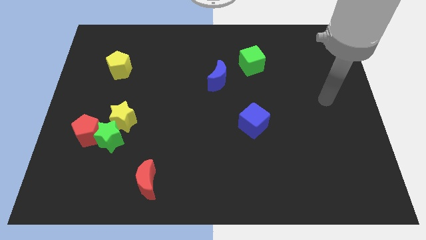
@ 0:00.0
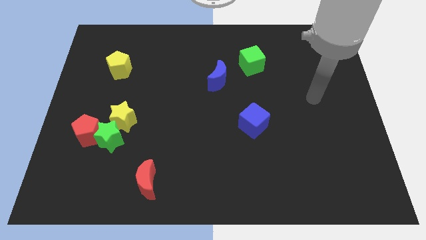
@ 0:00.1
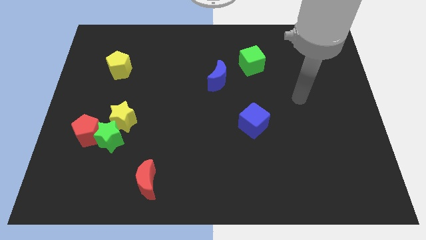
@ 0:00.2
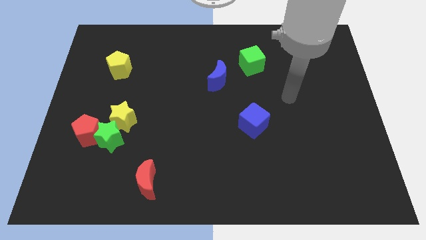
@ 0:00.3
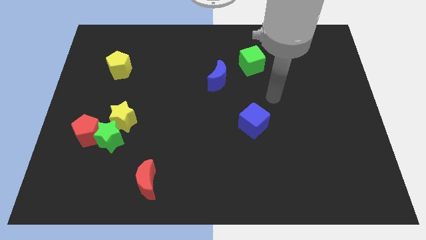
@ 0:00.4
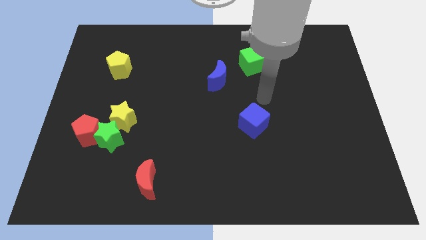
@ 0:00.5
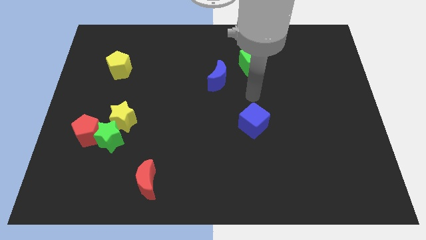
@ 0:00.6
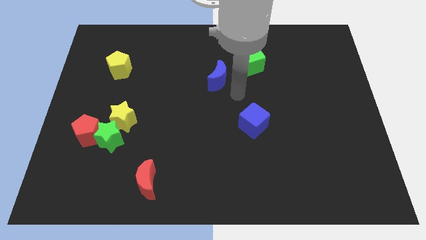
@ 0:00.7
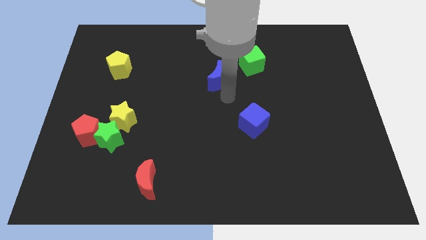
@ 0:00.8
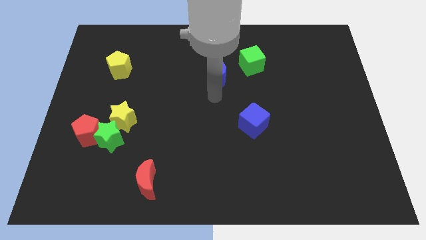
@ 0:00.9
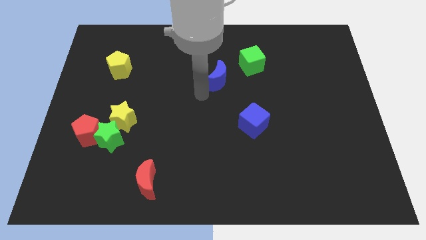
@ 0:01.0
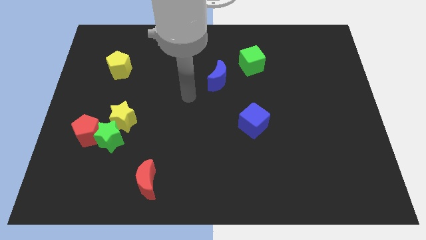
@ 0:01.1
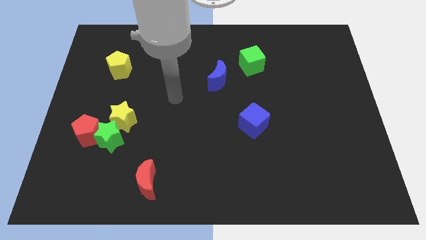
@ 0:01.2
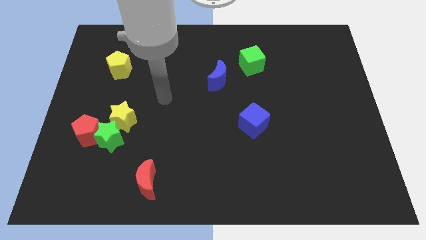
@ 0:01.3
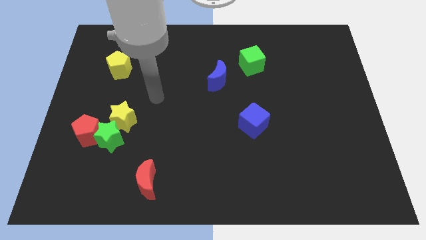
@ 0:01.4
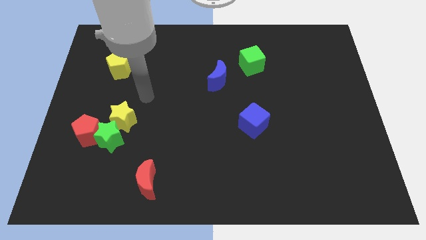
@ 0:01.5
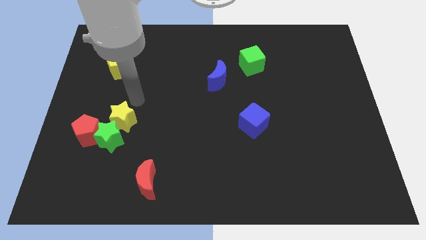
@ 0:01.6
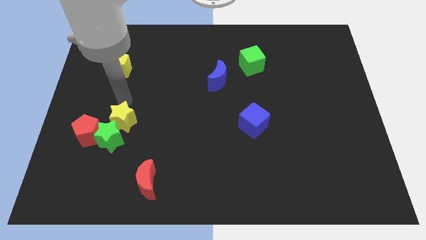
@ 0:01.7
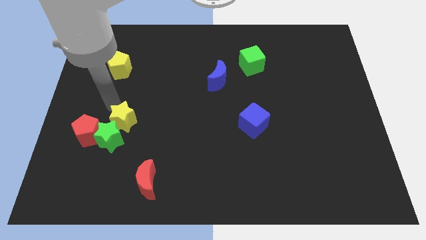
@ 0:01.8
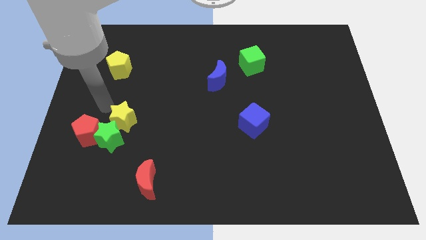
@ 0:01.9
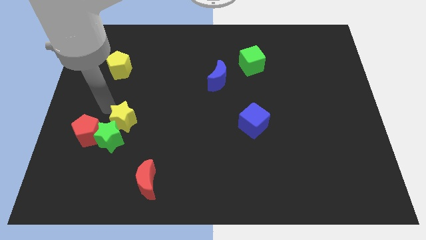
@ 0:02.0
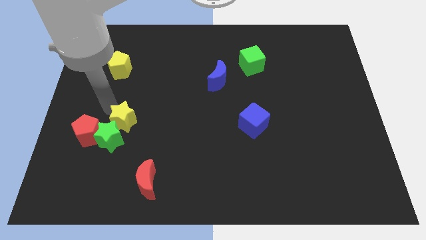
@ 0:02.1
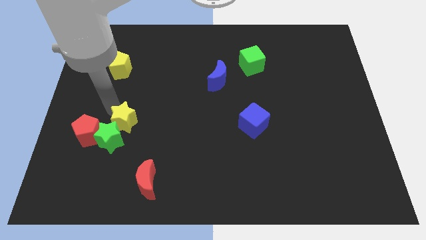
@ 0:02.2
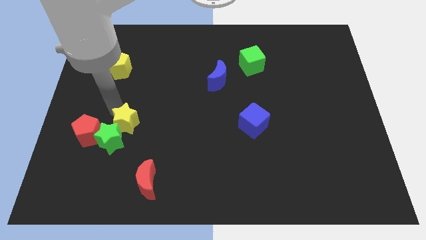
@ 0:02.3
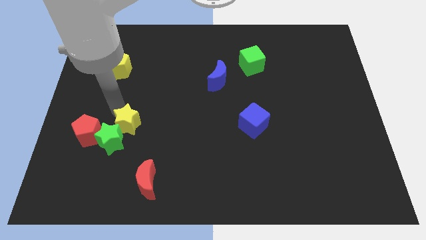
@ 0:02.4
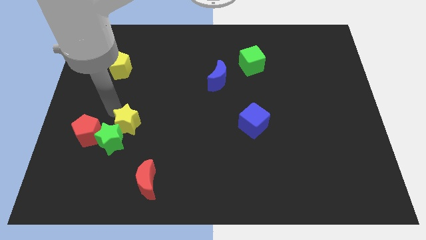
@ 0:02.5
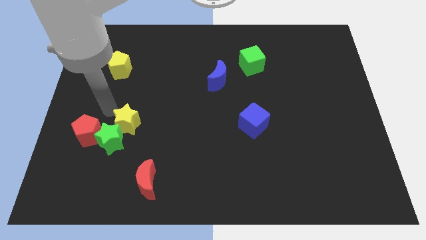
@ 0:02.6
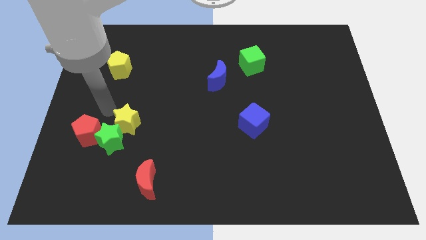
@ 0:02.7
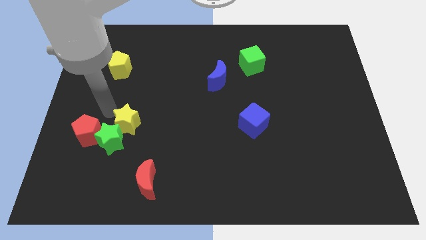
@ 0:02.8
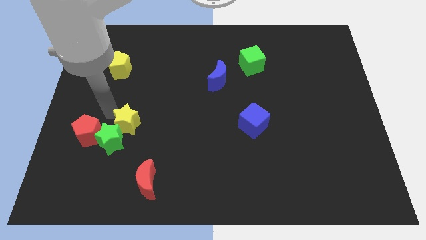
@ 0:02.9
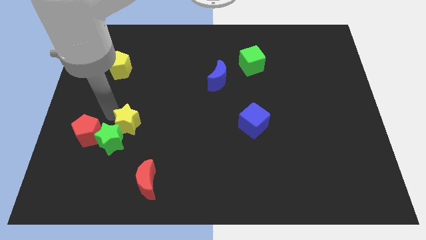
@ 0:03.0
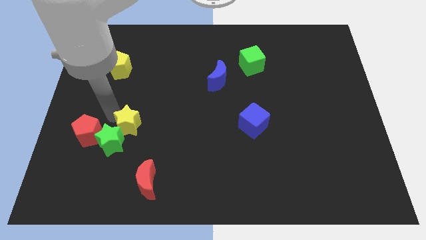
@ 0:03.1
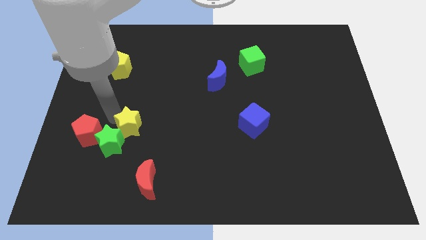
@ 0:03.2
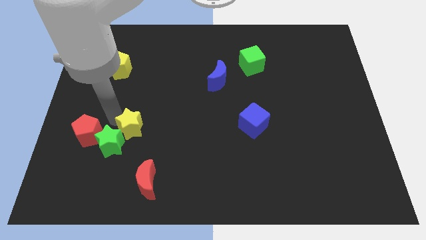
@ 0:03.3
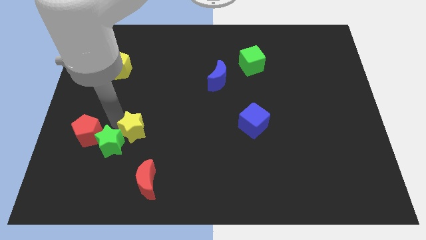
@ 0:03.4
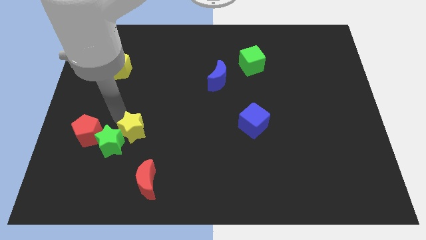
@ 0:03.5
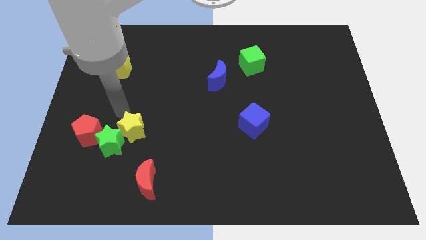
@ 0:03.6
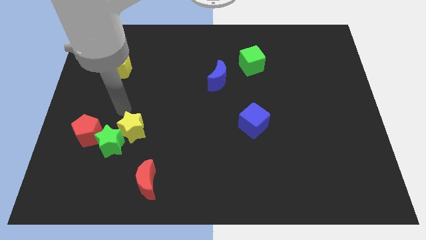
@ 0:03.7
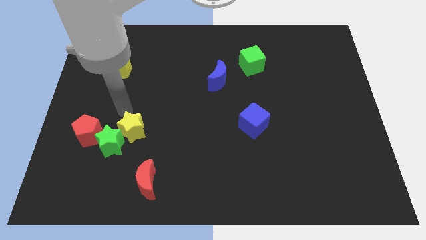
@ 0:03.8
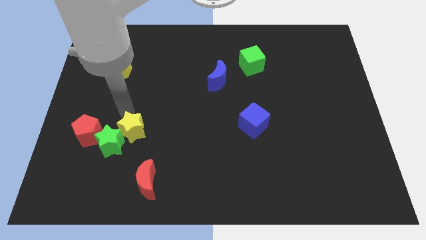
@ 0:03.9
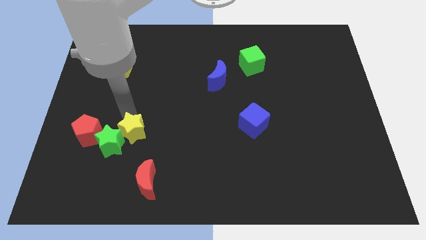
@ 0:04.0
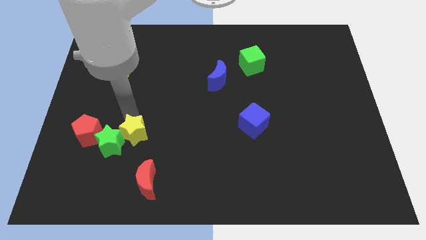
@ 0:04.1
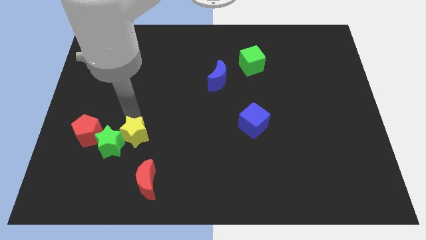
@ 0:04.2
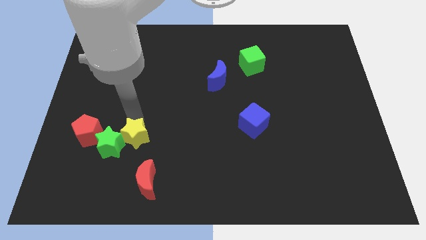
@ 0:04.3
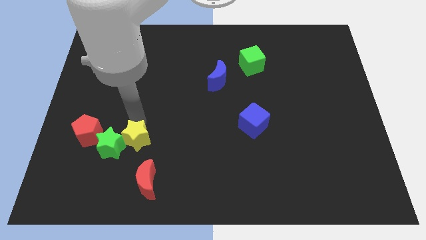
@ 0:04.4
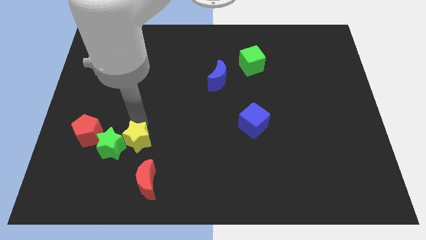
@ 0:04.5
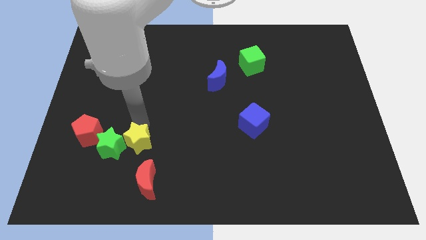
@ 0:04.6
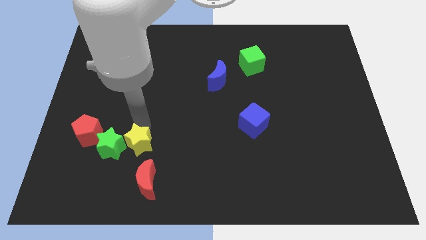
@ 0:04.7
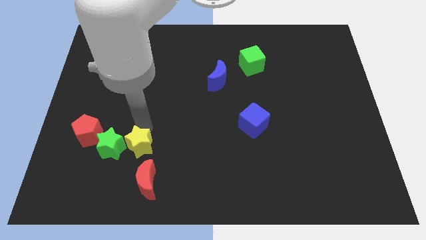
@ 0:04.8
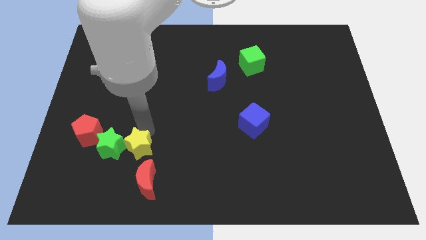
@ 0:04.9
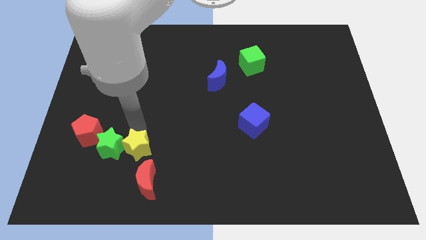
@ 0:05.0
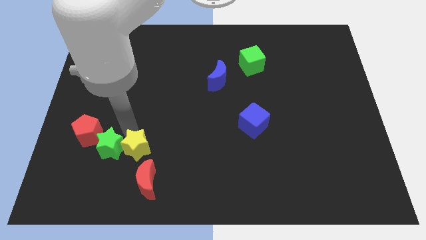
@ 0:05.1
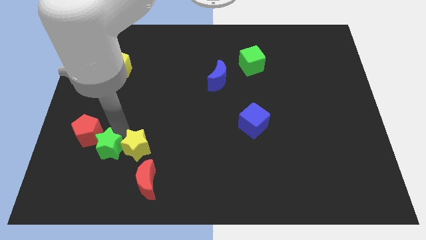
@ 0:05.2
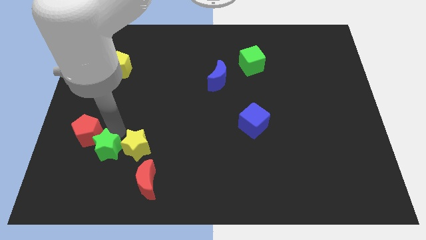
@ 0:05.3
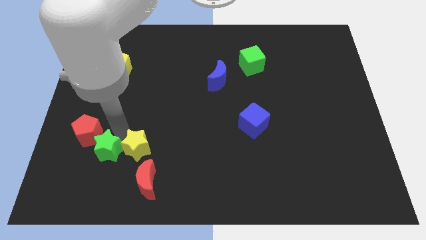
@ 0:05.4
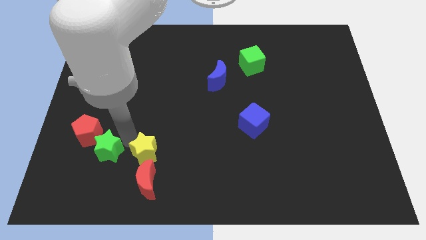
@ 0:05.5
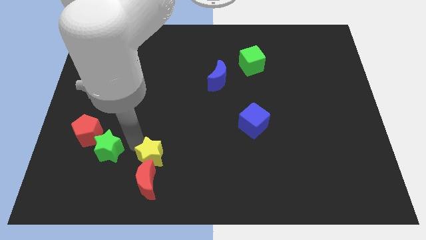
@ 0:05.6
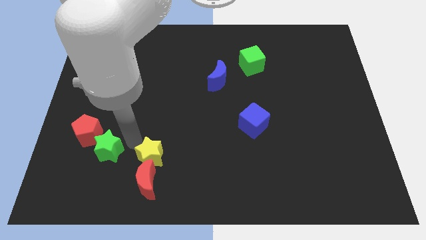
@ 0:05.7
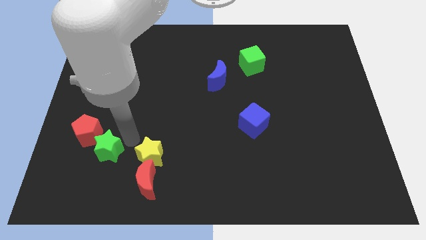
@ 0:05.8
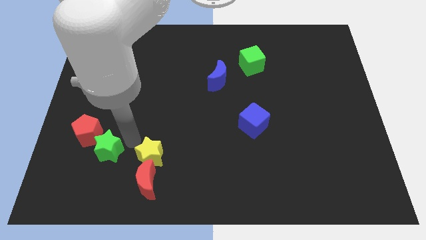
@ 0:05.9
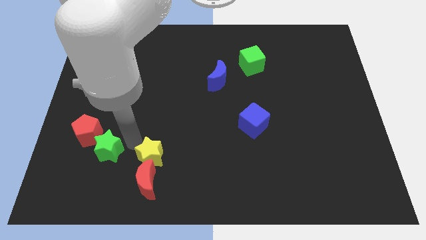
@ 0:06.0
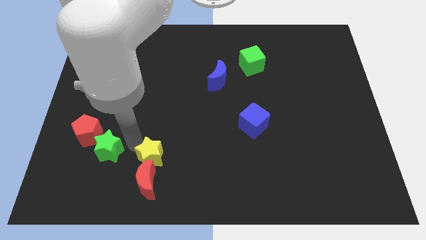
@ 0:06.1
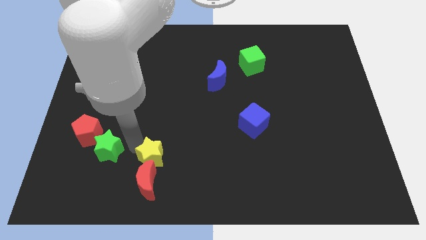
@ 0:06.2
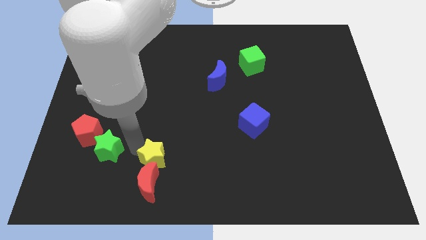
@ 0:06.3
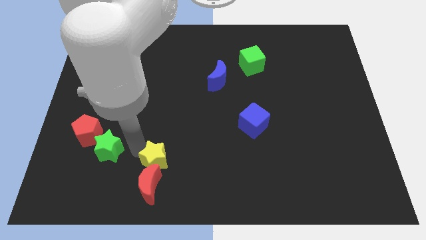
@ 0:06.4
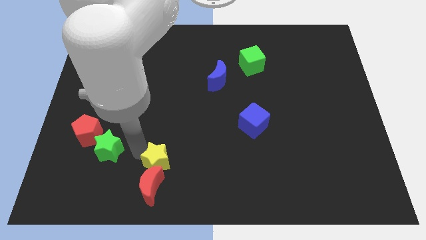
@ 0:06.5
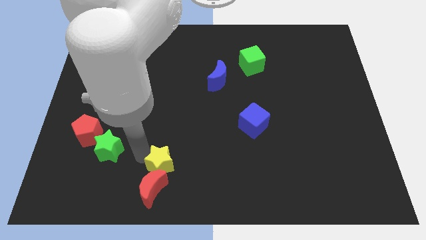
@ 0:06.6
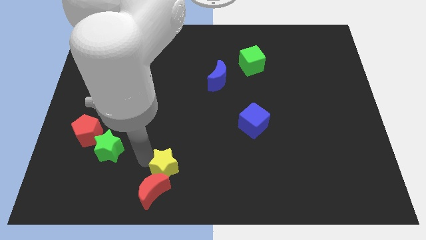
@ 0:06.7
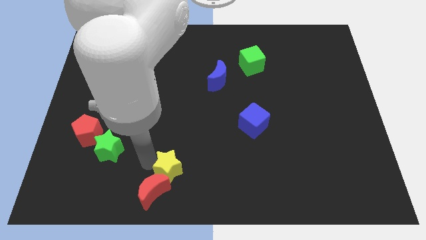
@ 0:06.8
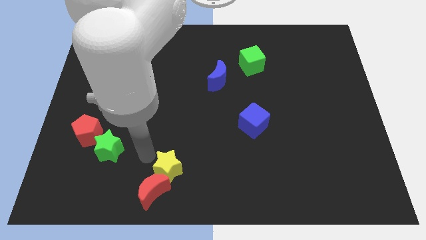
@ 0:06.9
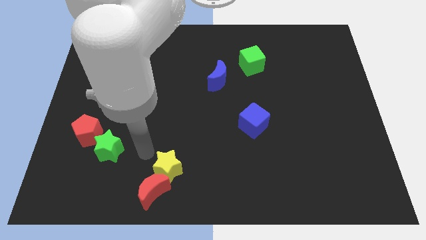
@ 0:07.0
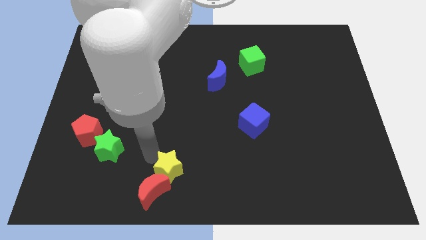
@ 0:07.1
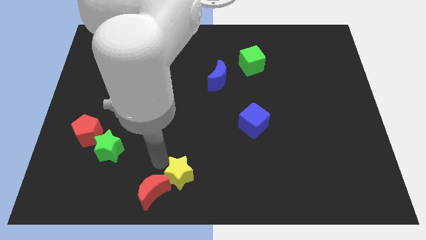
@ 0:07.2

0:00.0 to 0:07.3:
push the yellow star to the right side of the red moon
